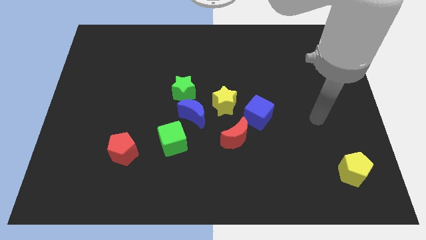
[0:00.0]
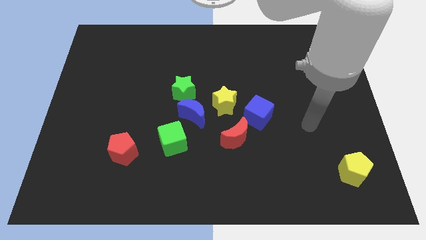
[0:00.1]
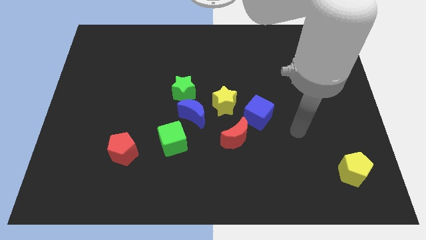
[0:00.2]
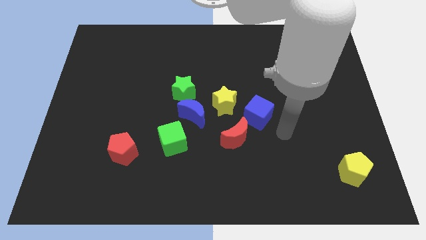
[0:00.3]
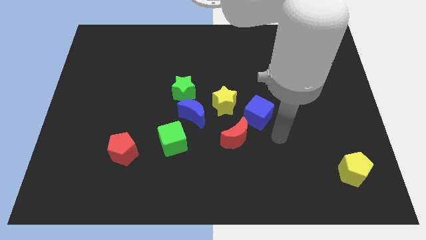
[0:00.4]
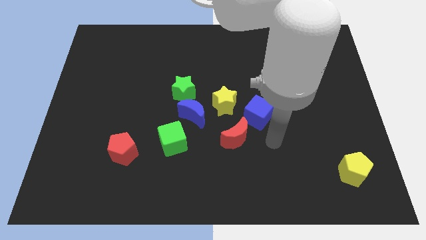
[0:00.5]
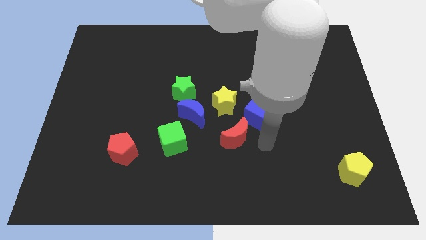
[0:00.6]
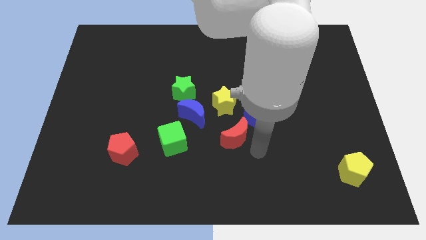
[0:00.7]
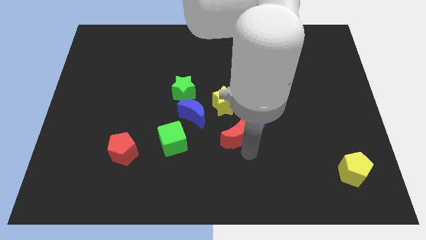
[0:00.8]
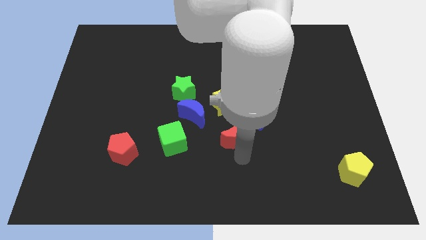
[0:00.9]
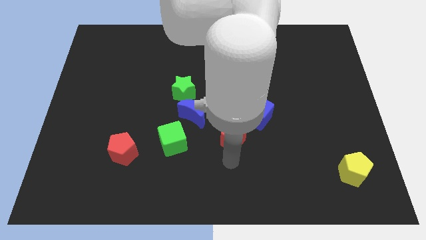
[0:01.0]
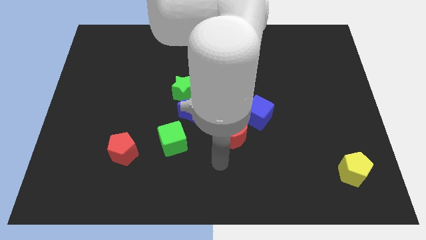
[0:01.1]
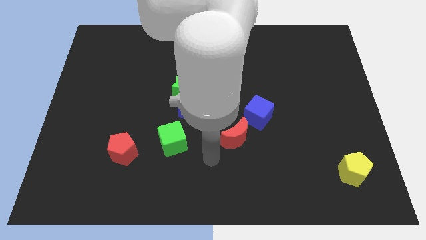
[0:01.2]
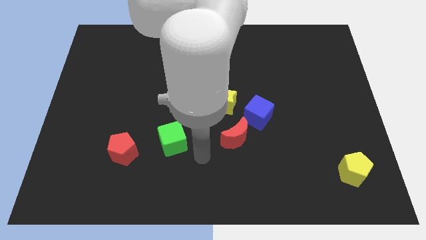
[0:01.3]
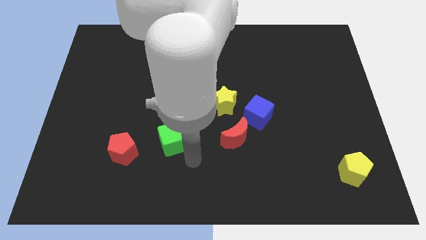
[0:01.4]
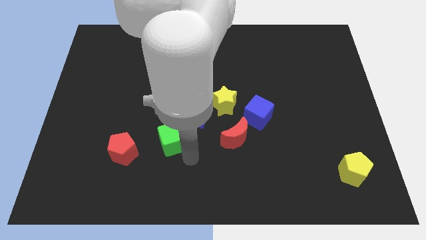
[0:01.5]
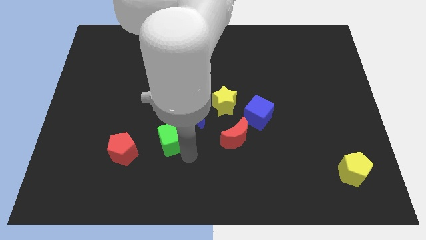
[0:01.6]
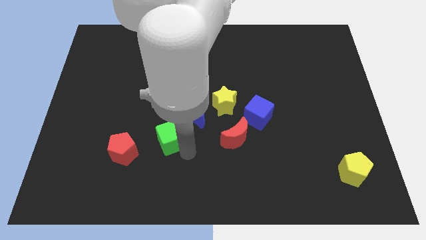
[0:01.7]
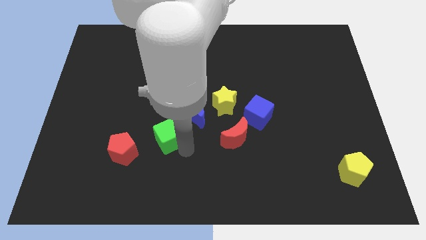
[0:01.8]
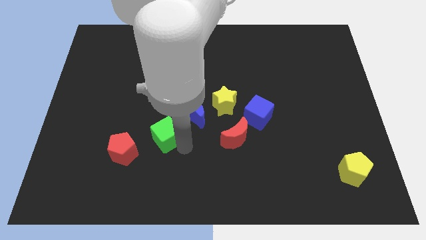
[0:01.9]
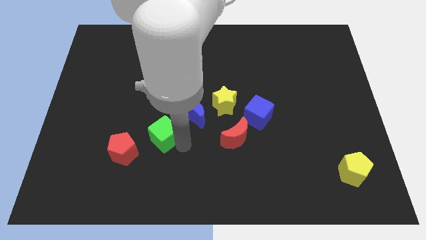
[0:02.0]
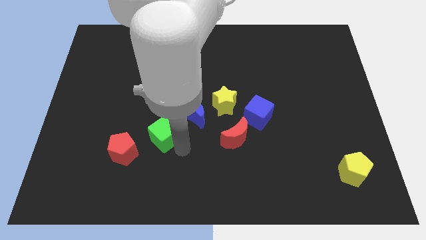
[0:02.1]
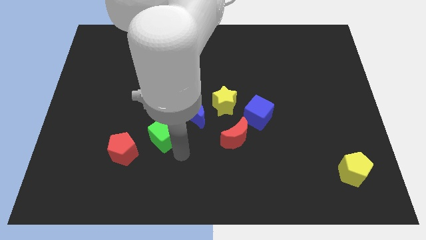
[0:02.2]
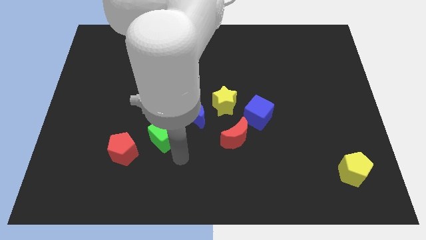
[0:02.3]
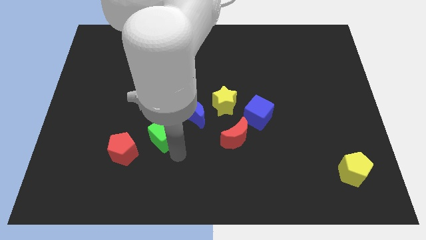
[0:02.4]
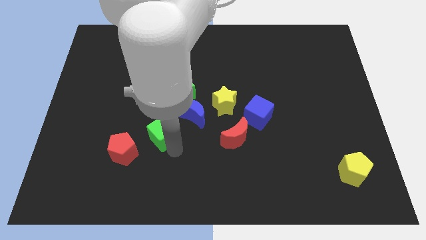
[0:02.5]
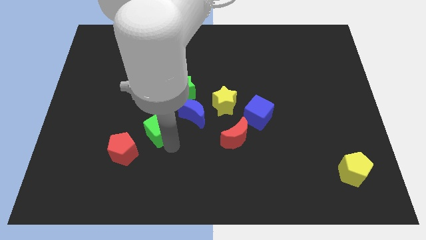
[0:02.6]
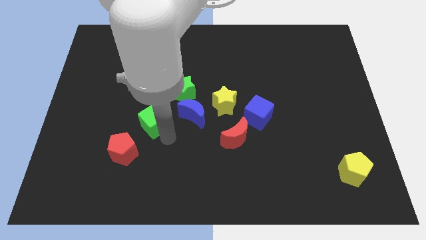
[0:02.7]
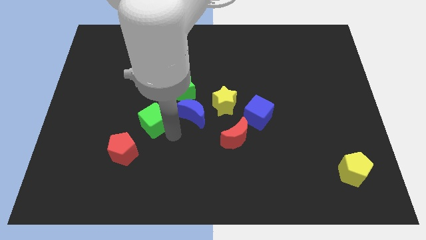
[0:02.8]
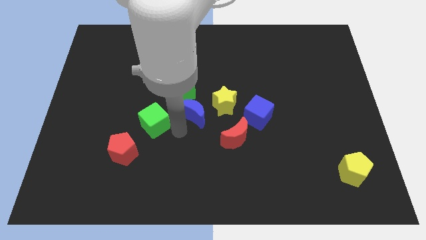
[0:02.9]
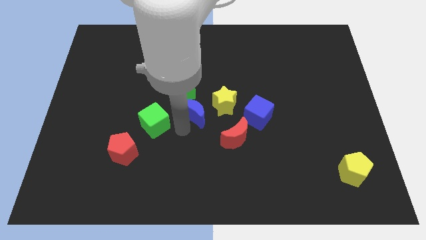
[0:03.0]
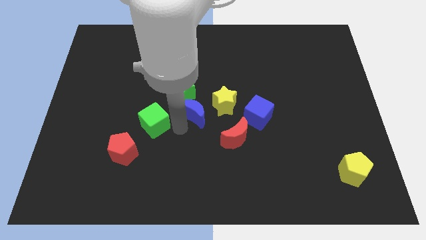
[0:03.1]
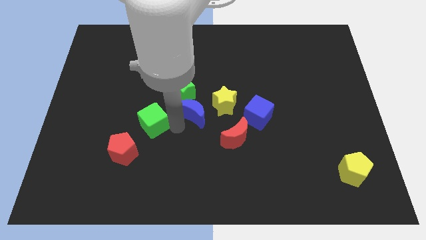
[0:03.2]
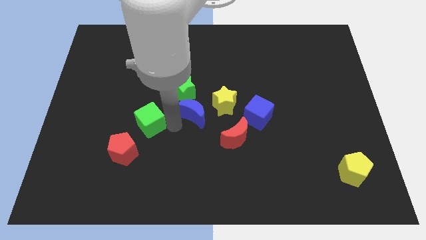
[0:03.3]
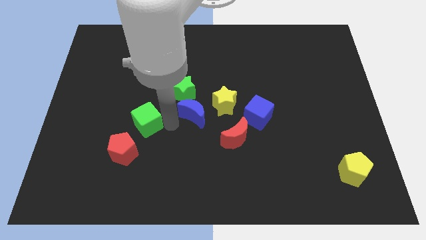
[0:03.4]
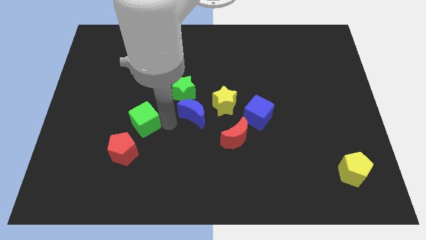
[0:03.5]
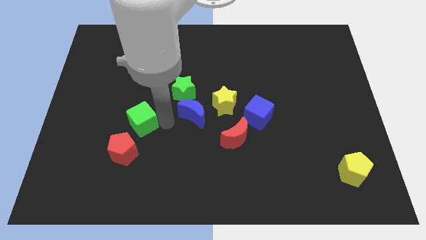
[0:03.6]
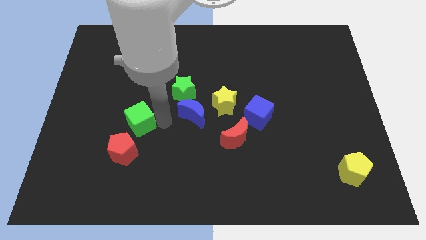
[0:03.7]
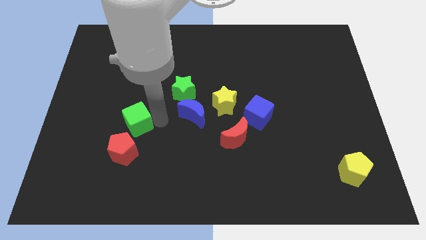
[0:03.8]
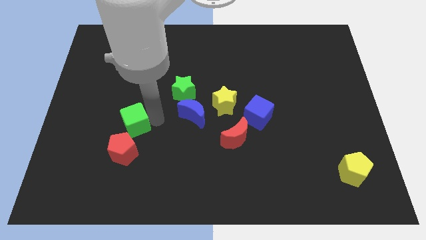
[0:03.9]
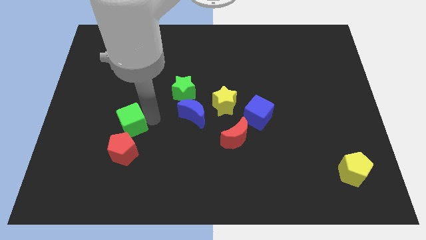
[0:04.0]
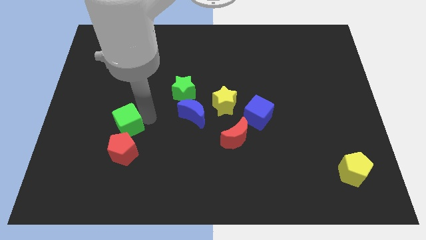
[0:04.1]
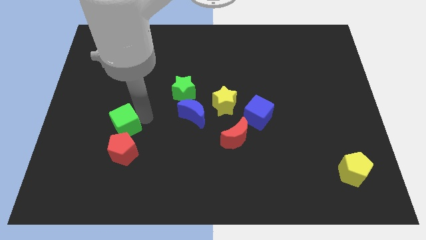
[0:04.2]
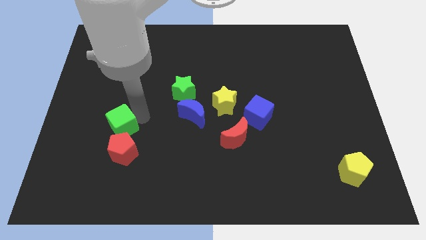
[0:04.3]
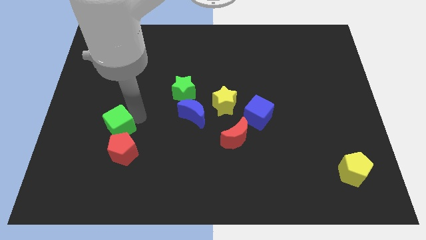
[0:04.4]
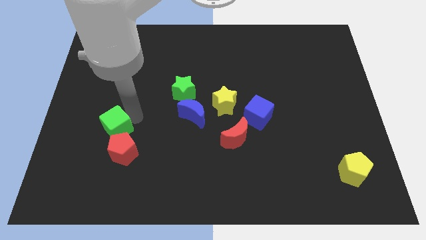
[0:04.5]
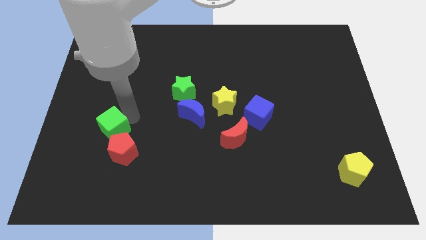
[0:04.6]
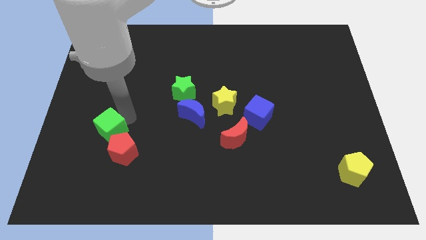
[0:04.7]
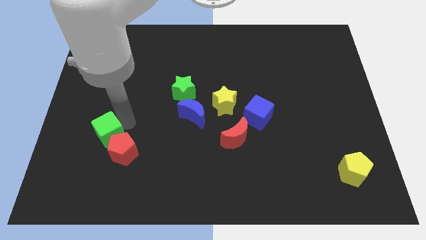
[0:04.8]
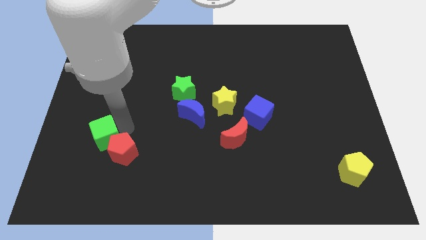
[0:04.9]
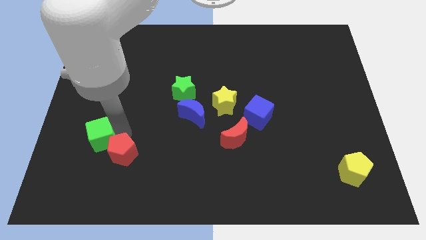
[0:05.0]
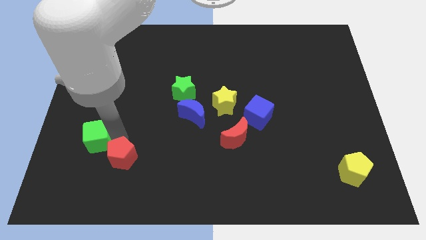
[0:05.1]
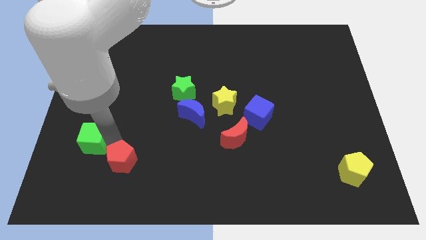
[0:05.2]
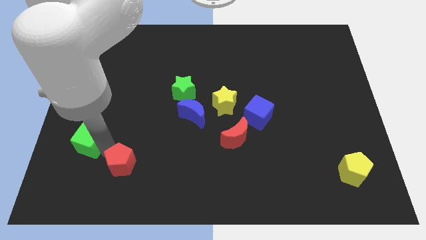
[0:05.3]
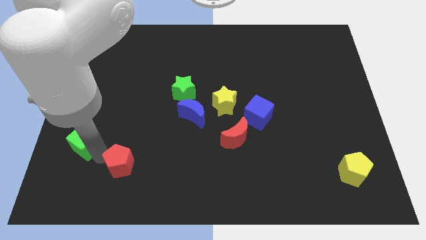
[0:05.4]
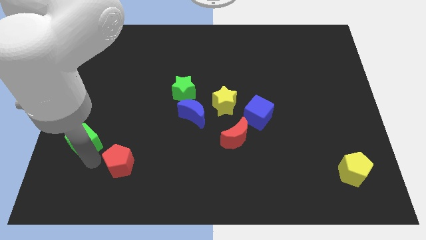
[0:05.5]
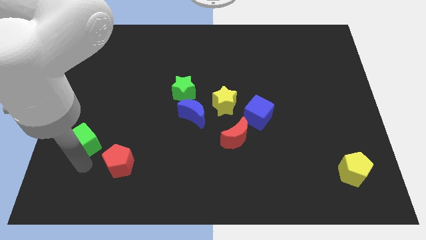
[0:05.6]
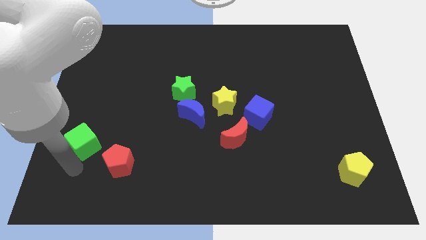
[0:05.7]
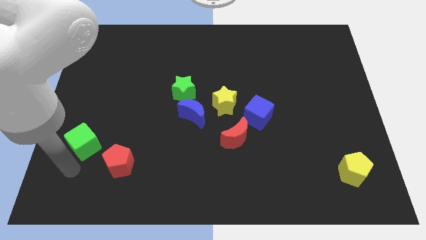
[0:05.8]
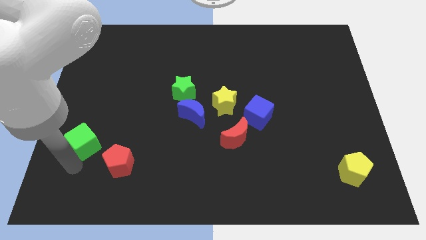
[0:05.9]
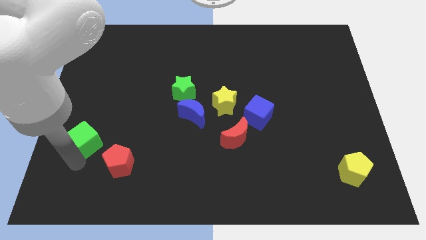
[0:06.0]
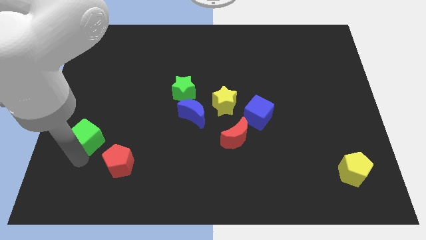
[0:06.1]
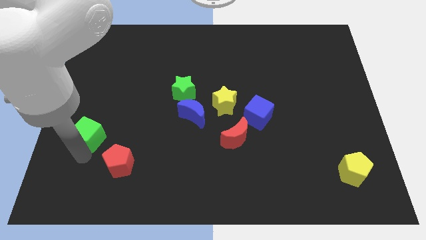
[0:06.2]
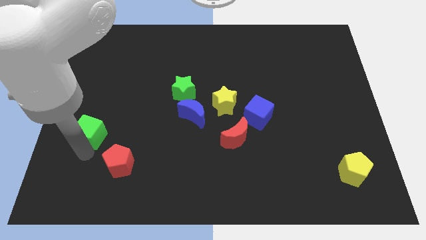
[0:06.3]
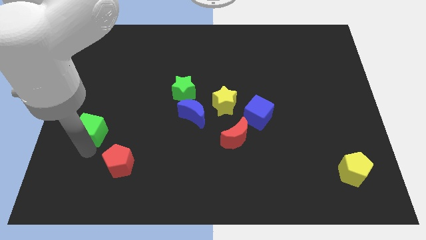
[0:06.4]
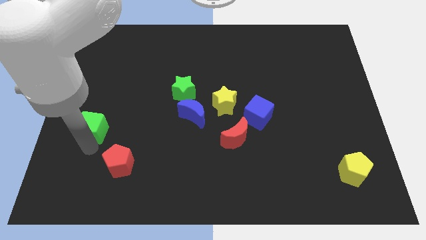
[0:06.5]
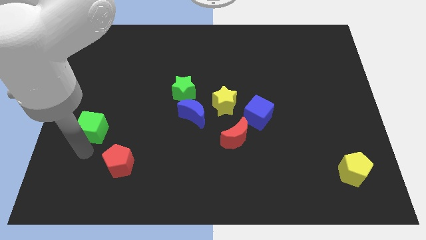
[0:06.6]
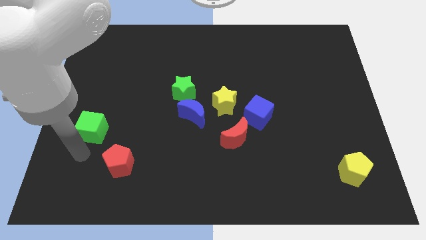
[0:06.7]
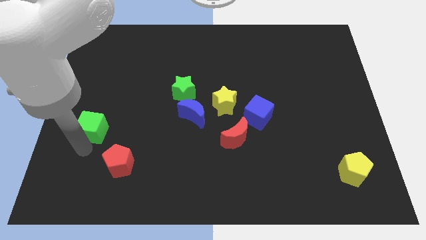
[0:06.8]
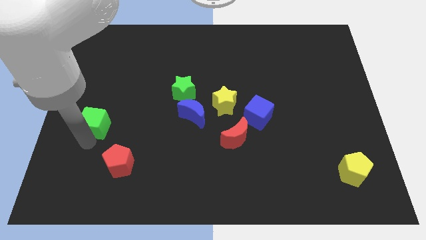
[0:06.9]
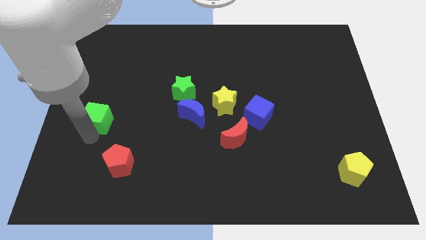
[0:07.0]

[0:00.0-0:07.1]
put the green cube to the left side of the board
